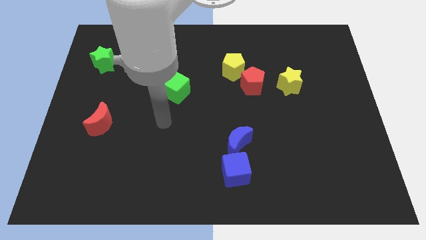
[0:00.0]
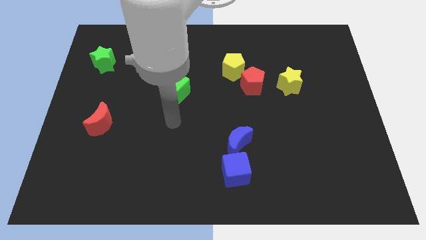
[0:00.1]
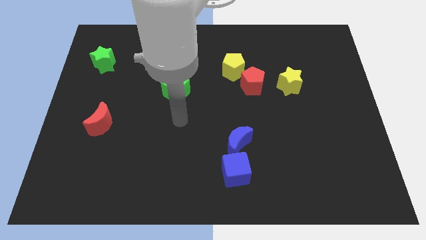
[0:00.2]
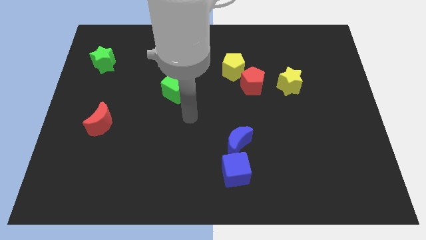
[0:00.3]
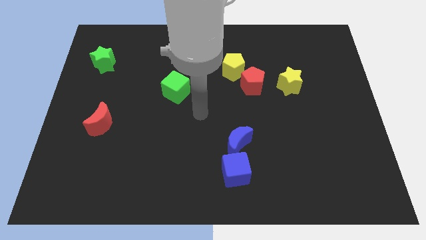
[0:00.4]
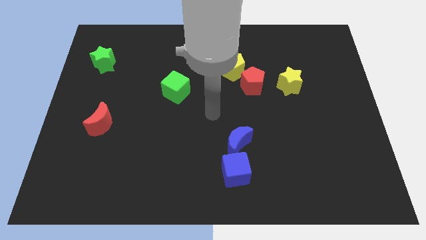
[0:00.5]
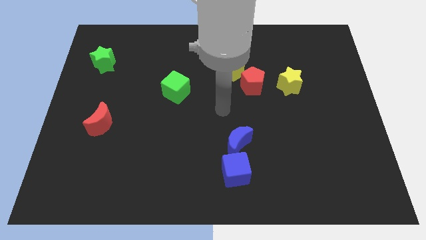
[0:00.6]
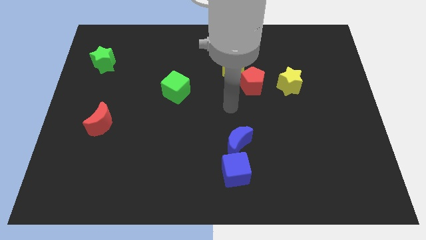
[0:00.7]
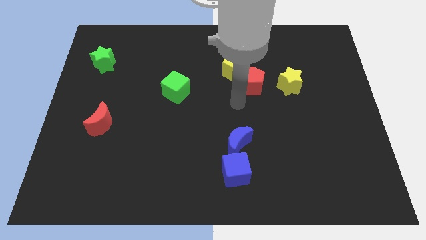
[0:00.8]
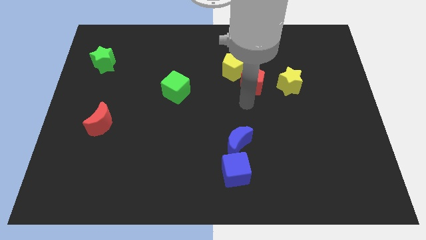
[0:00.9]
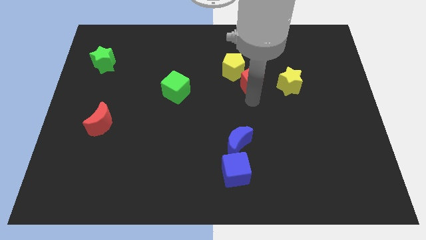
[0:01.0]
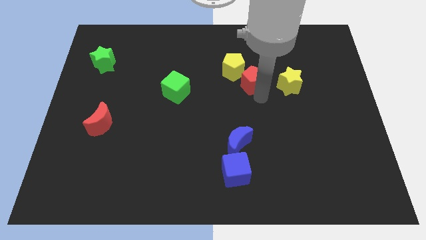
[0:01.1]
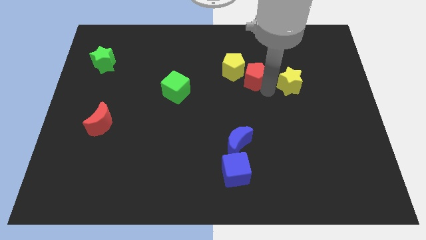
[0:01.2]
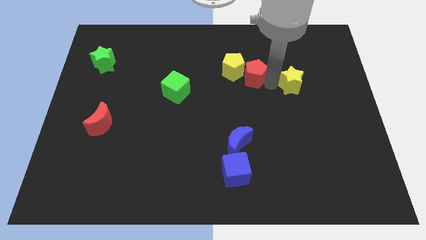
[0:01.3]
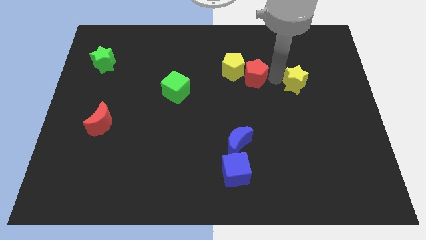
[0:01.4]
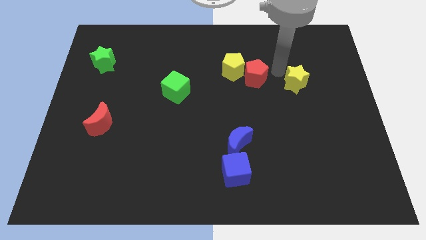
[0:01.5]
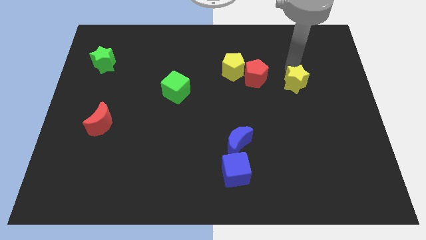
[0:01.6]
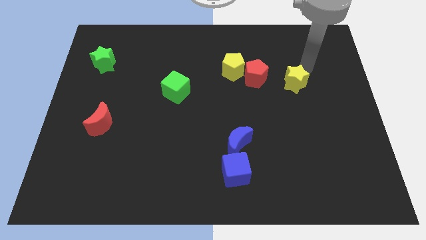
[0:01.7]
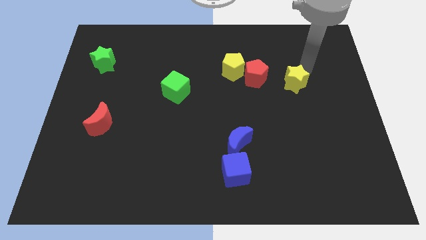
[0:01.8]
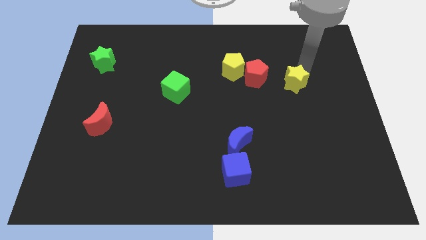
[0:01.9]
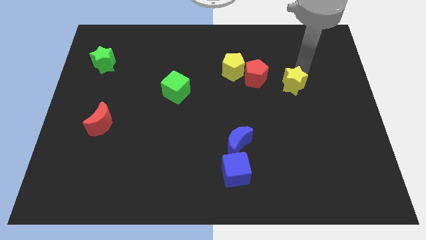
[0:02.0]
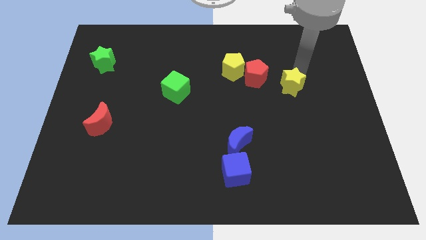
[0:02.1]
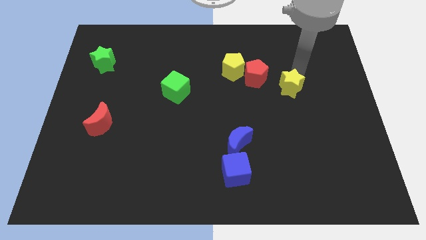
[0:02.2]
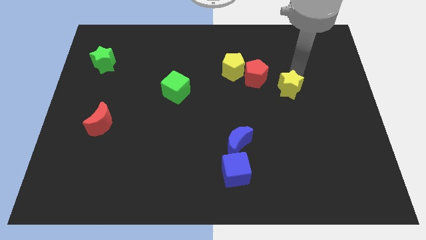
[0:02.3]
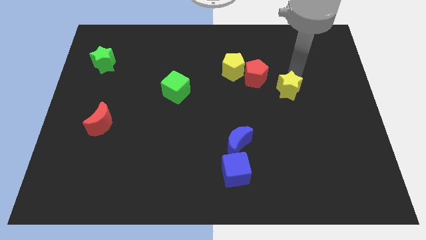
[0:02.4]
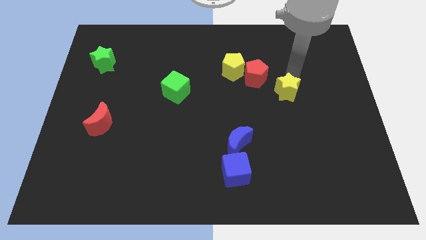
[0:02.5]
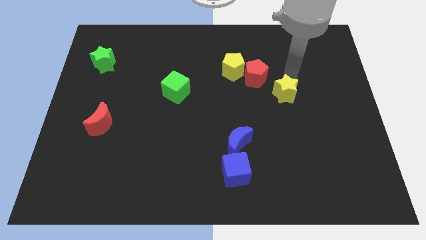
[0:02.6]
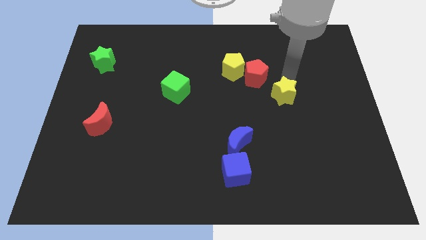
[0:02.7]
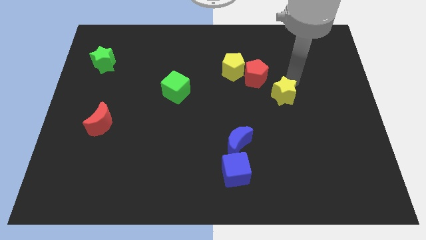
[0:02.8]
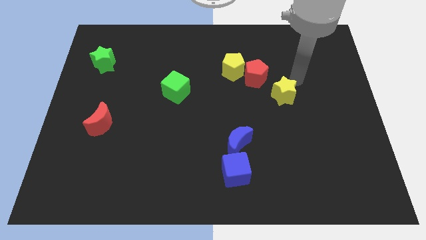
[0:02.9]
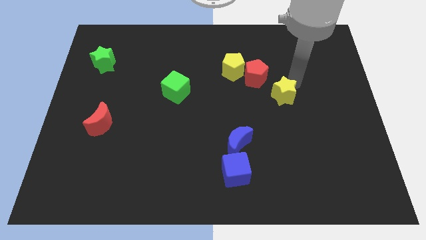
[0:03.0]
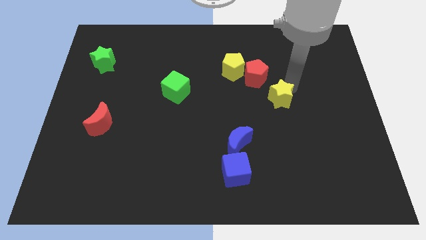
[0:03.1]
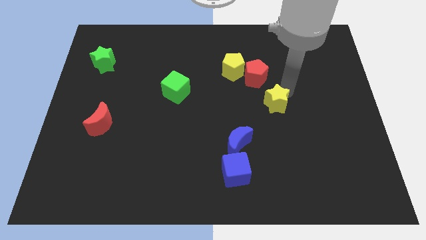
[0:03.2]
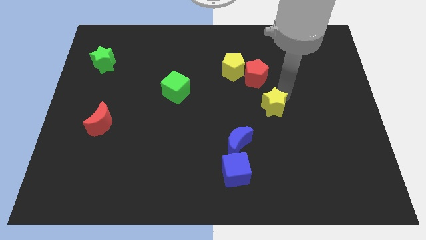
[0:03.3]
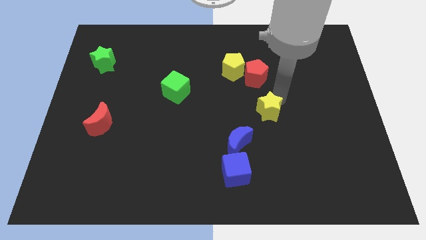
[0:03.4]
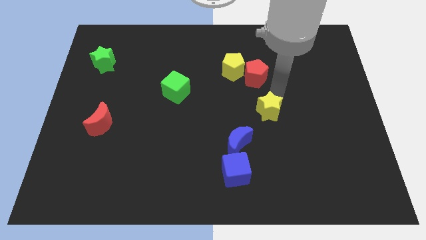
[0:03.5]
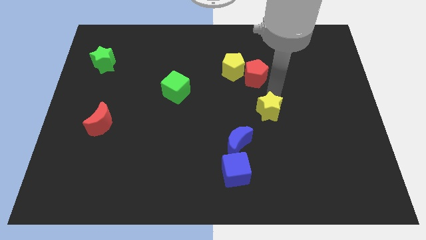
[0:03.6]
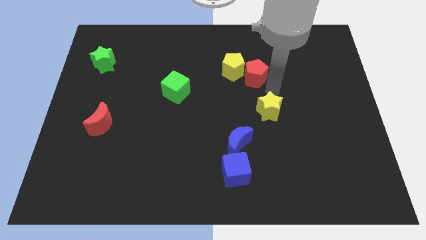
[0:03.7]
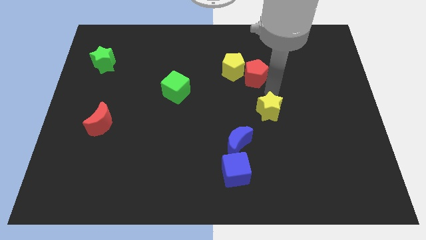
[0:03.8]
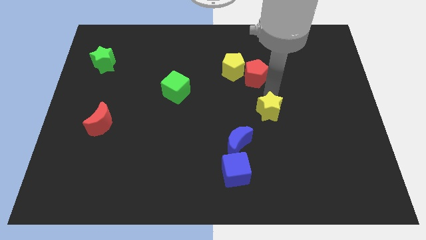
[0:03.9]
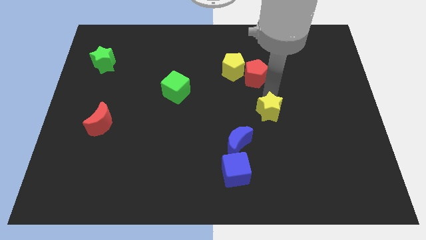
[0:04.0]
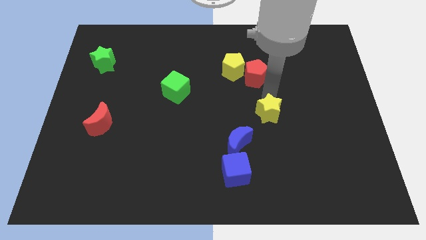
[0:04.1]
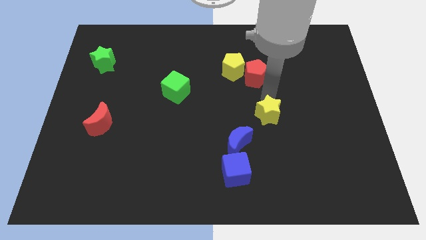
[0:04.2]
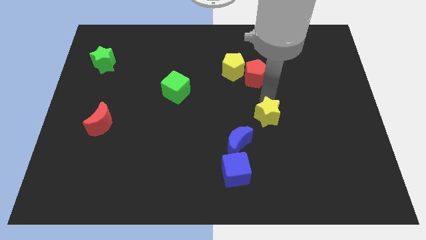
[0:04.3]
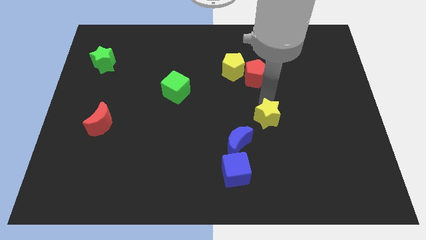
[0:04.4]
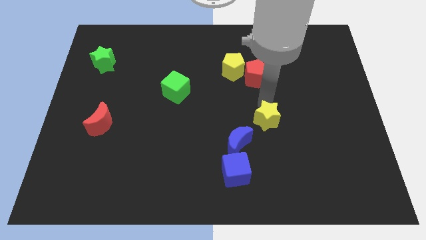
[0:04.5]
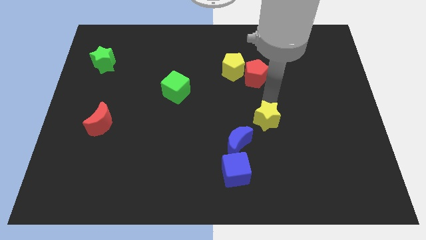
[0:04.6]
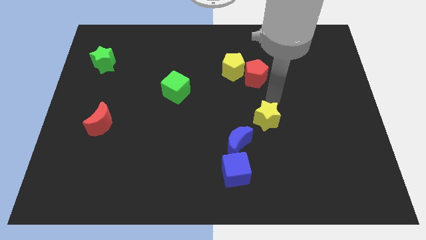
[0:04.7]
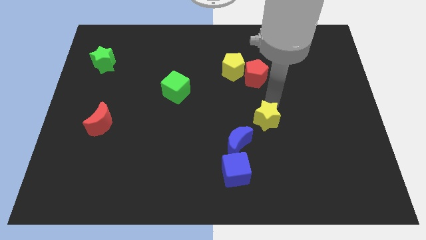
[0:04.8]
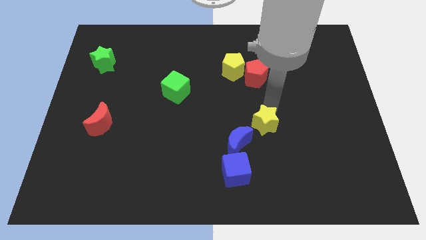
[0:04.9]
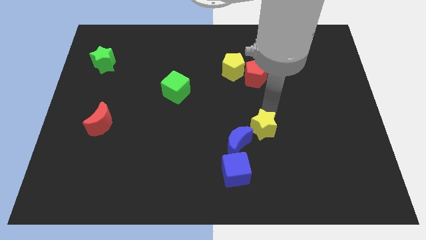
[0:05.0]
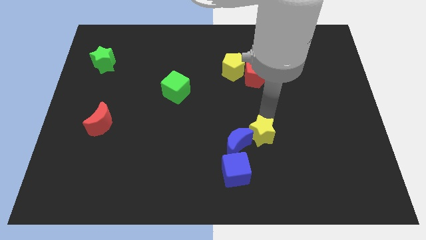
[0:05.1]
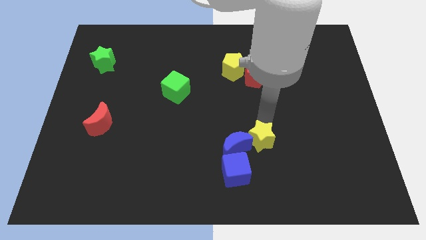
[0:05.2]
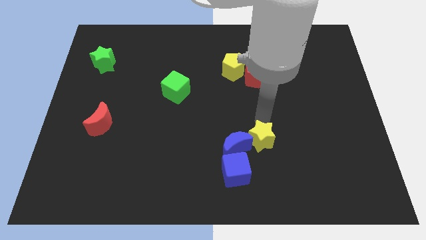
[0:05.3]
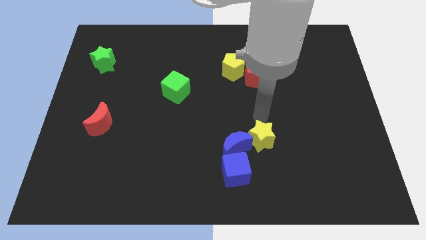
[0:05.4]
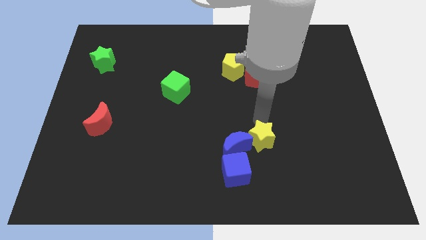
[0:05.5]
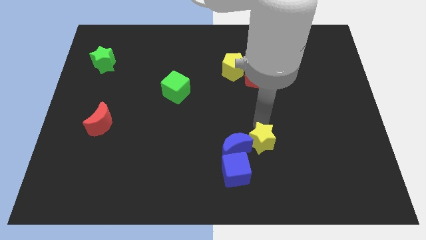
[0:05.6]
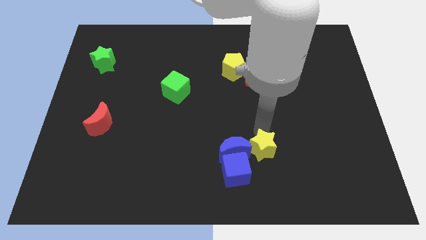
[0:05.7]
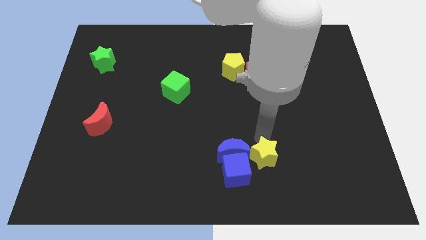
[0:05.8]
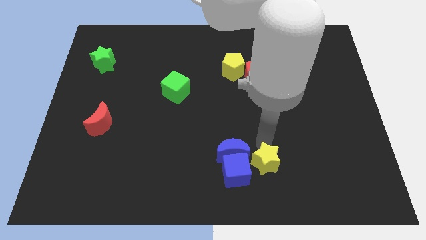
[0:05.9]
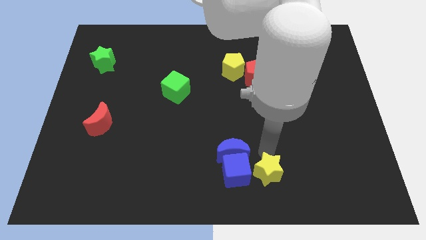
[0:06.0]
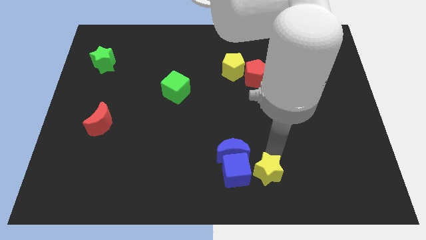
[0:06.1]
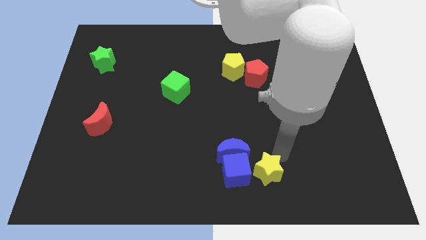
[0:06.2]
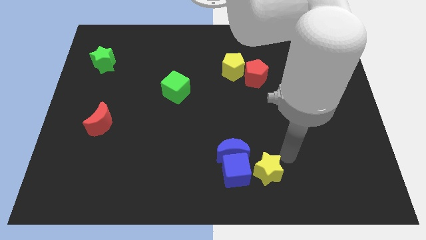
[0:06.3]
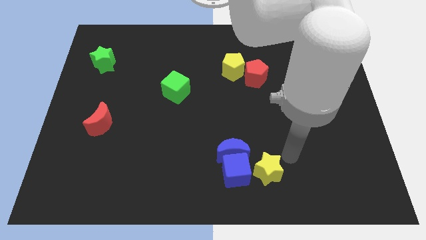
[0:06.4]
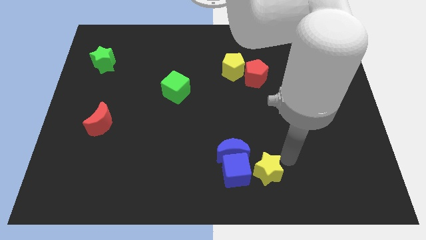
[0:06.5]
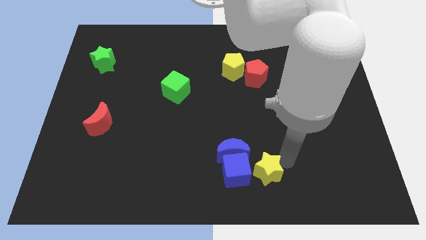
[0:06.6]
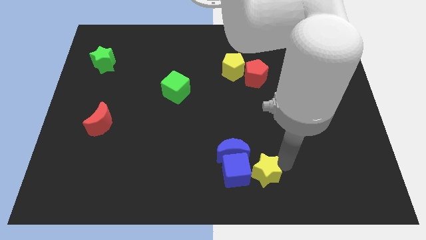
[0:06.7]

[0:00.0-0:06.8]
slide the yellow star to the bottom
